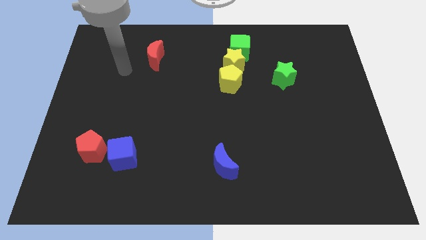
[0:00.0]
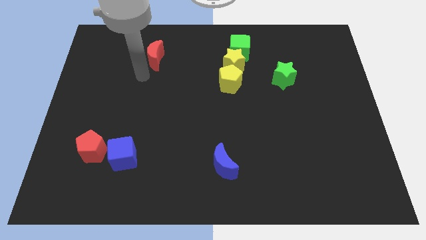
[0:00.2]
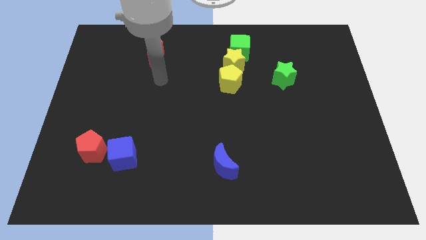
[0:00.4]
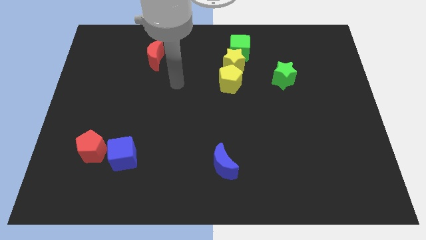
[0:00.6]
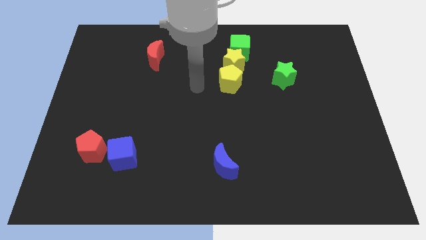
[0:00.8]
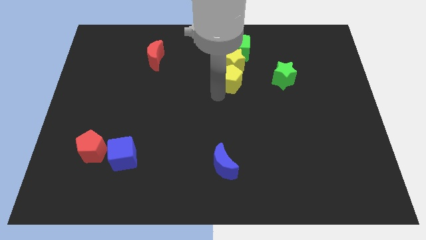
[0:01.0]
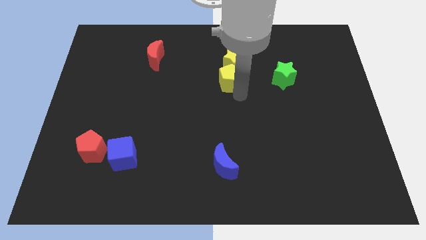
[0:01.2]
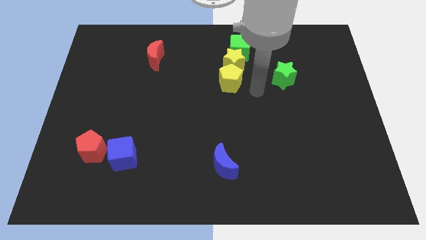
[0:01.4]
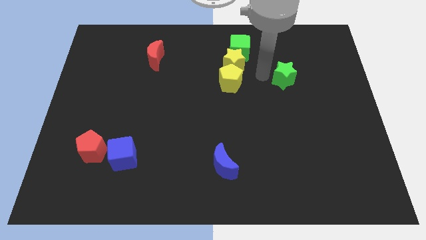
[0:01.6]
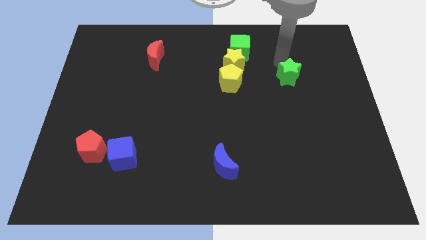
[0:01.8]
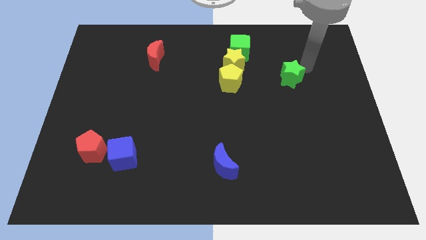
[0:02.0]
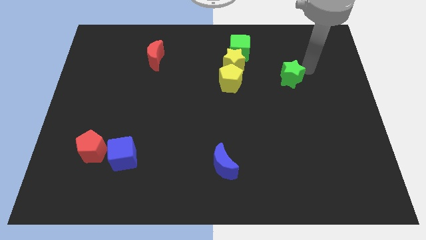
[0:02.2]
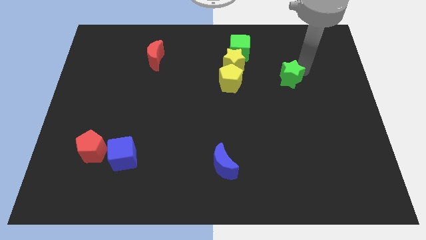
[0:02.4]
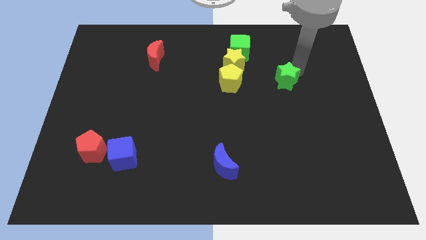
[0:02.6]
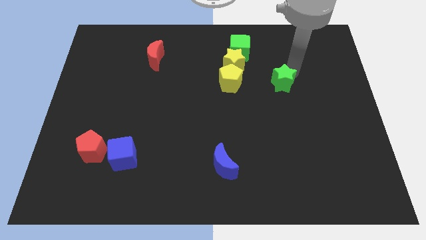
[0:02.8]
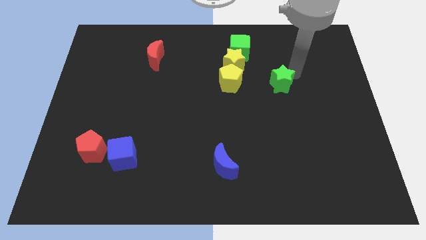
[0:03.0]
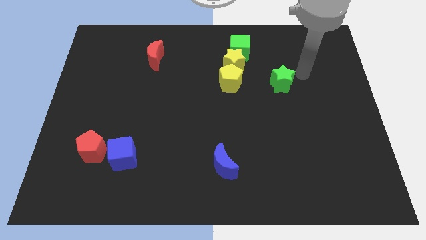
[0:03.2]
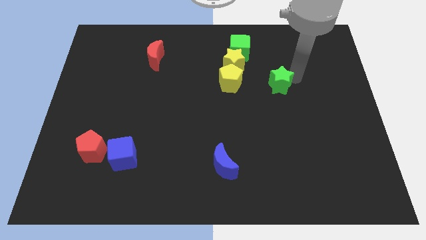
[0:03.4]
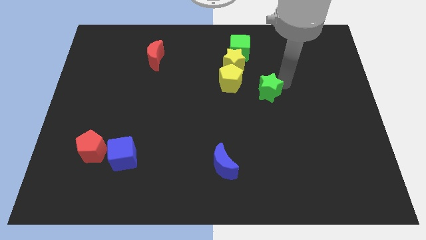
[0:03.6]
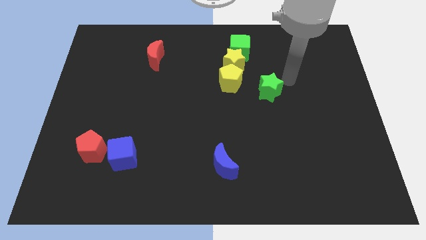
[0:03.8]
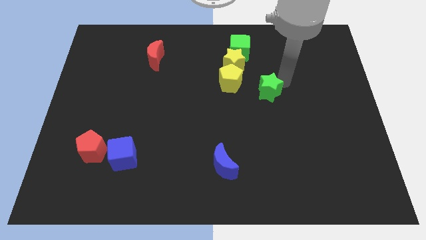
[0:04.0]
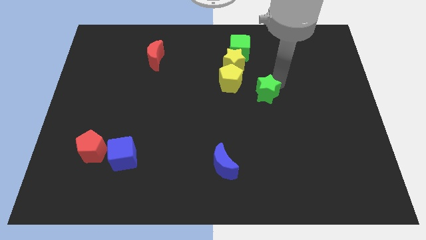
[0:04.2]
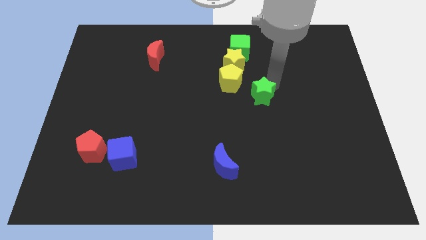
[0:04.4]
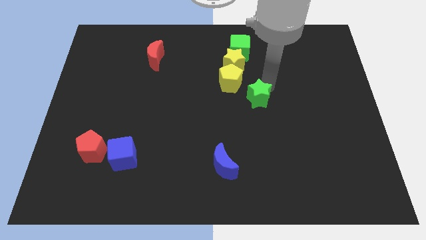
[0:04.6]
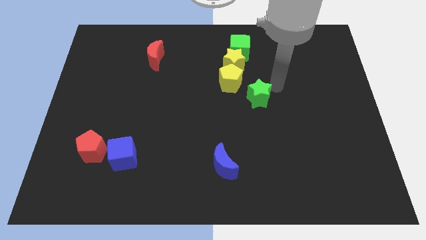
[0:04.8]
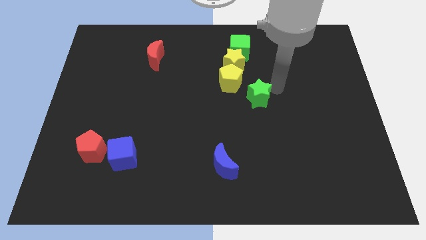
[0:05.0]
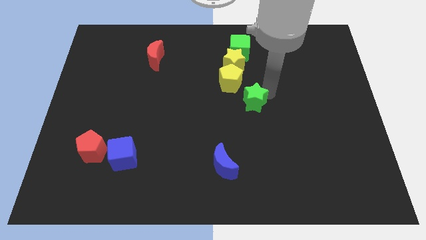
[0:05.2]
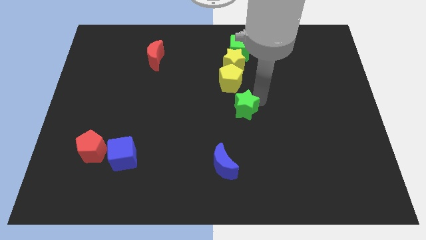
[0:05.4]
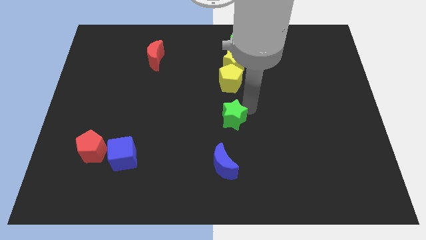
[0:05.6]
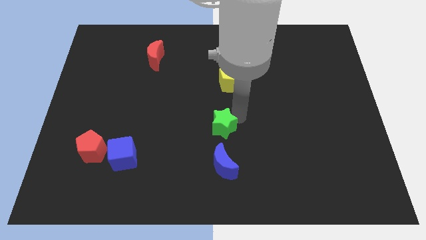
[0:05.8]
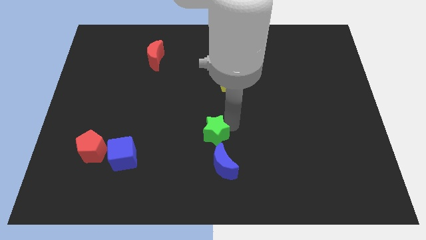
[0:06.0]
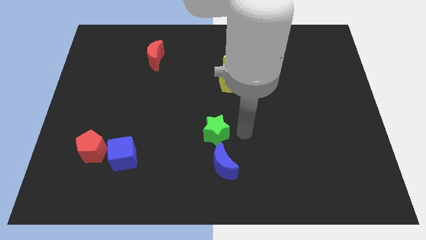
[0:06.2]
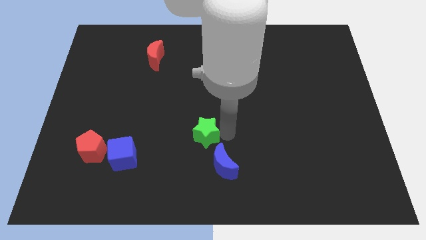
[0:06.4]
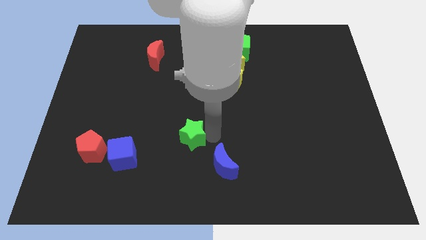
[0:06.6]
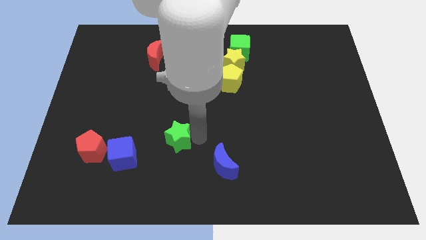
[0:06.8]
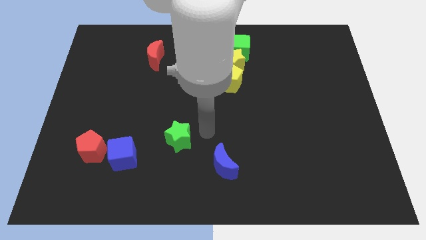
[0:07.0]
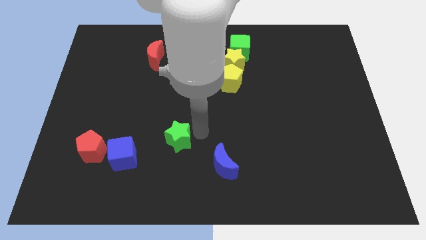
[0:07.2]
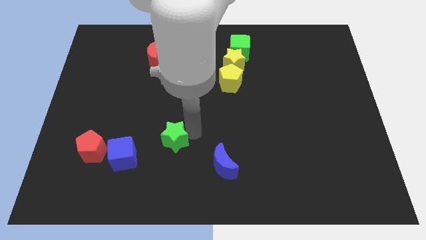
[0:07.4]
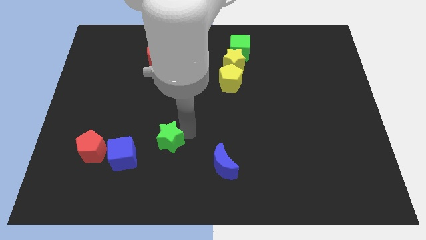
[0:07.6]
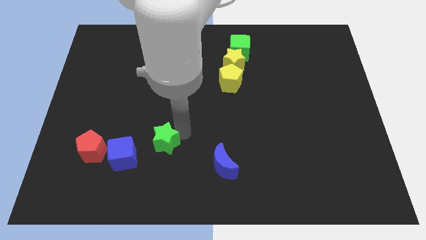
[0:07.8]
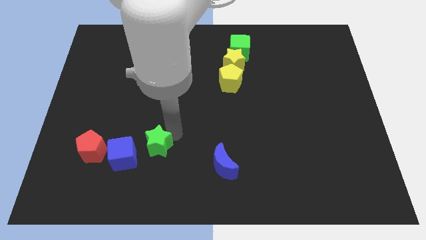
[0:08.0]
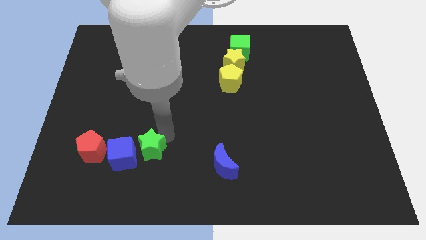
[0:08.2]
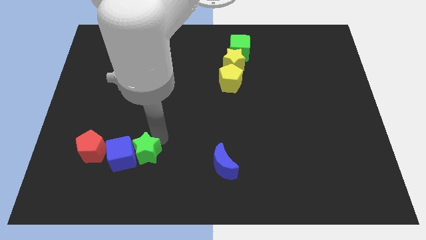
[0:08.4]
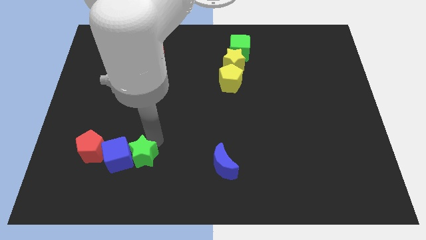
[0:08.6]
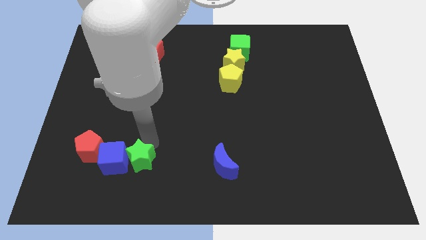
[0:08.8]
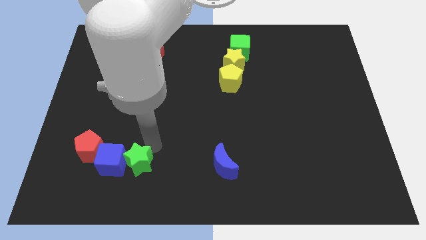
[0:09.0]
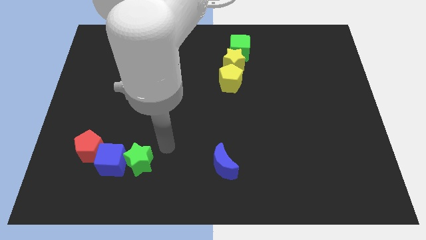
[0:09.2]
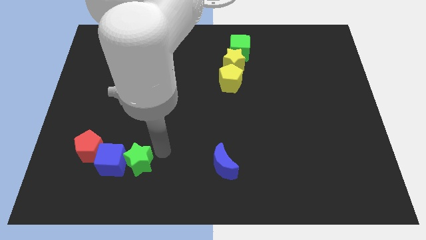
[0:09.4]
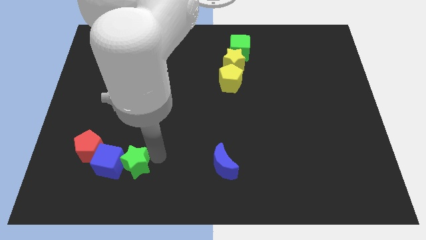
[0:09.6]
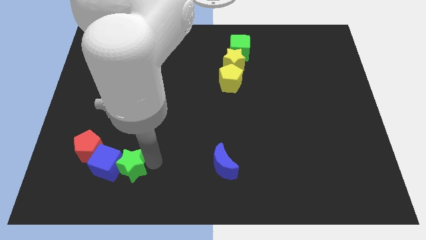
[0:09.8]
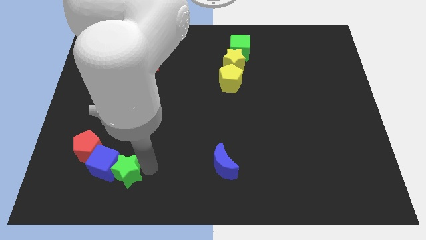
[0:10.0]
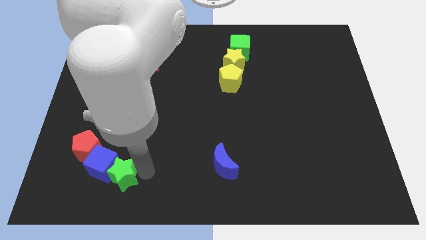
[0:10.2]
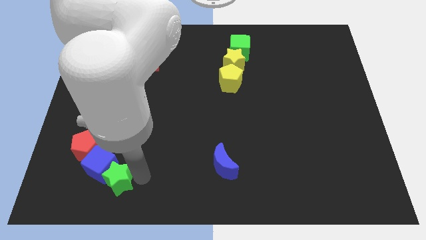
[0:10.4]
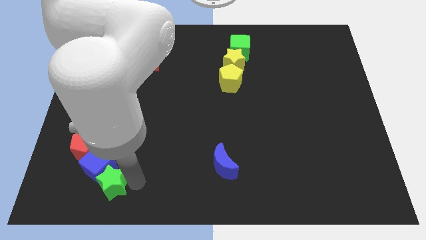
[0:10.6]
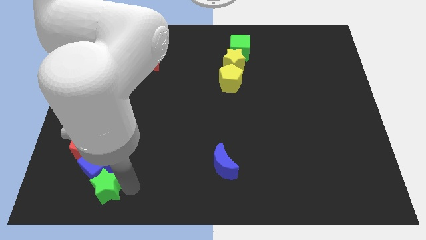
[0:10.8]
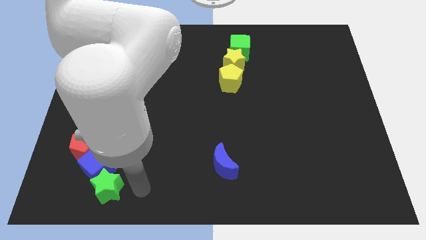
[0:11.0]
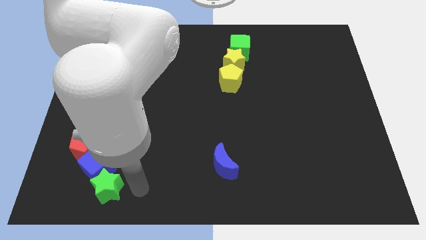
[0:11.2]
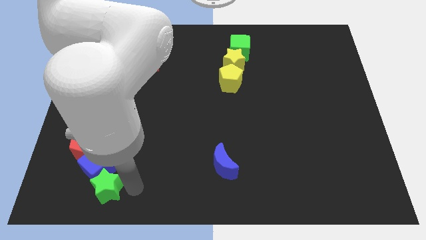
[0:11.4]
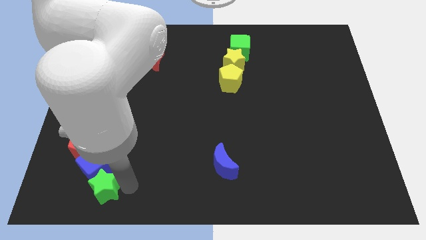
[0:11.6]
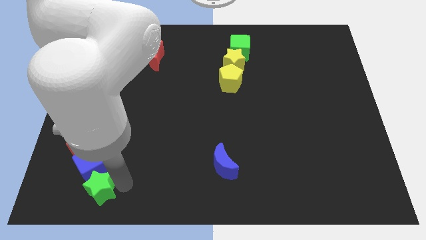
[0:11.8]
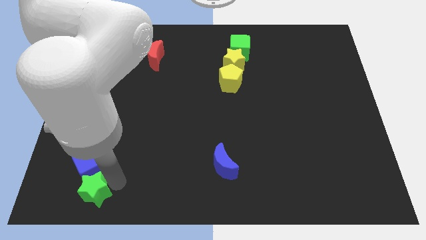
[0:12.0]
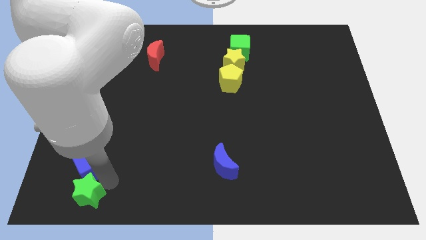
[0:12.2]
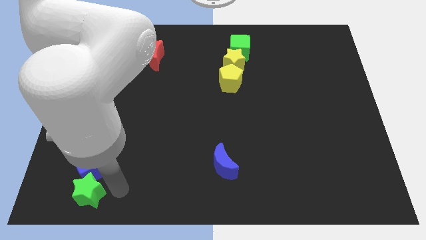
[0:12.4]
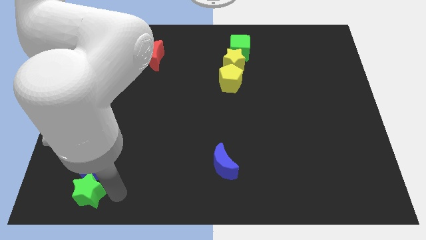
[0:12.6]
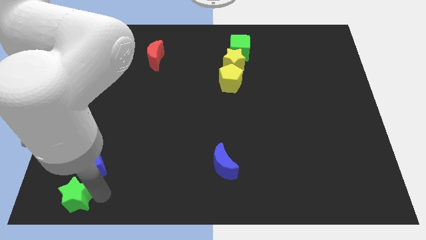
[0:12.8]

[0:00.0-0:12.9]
put the green star to the bottom left corner
